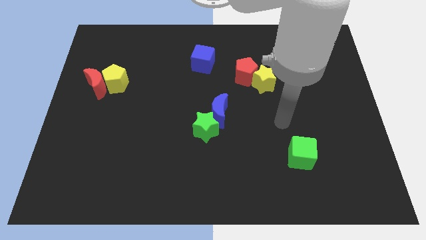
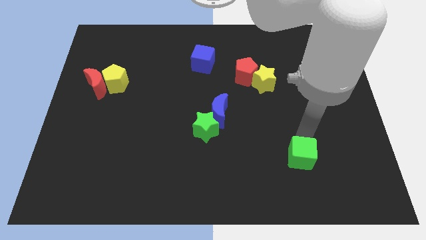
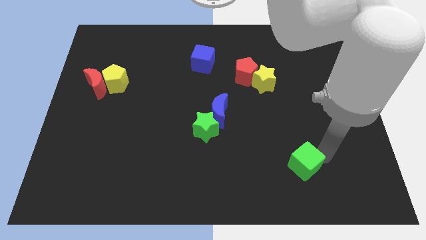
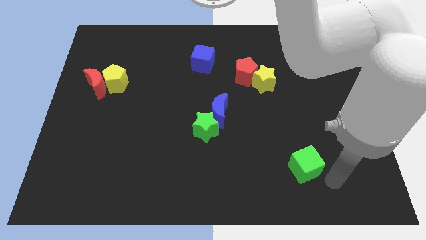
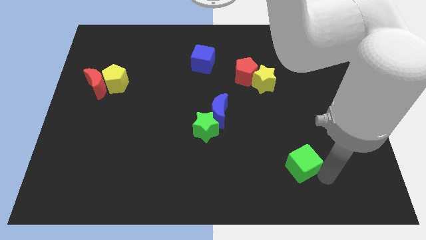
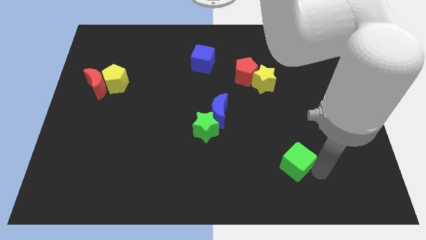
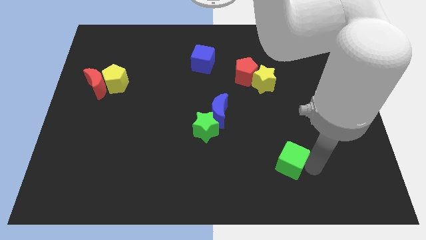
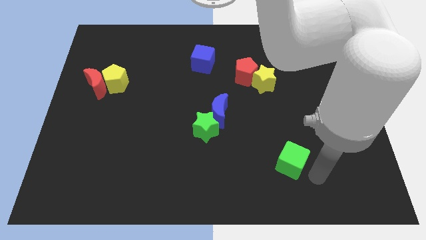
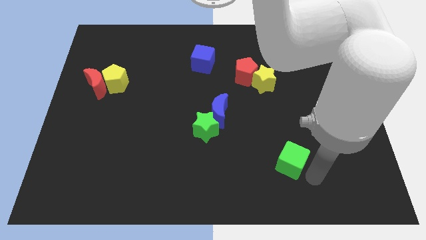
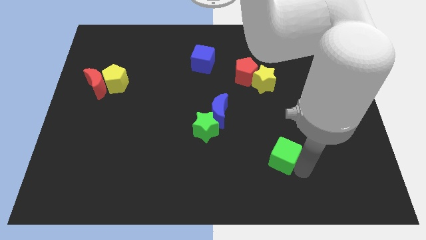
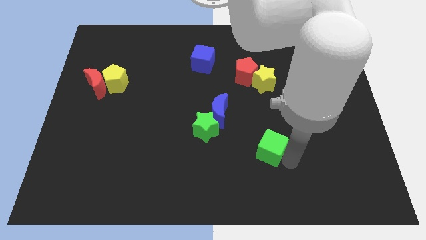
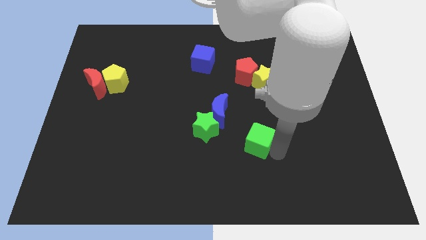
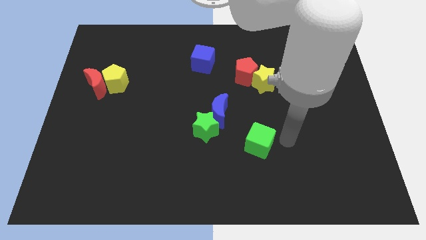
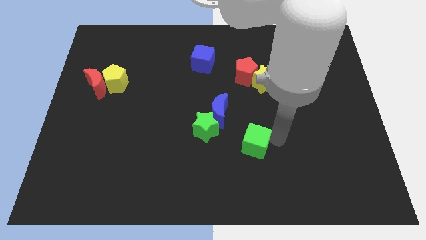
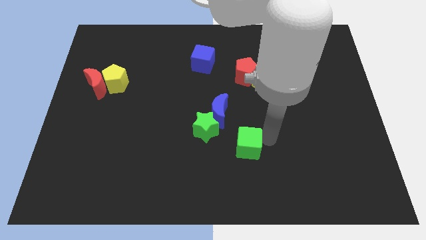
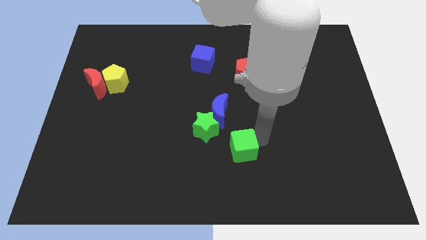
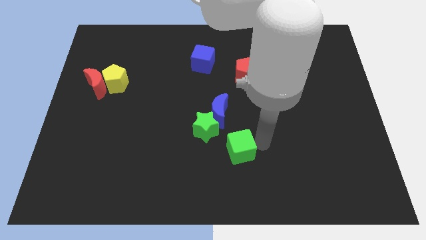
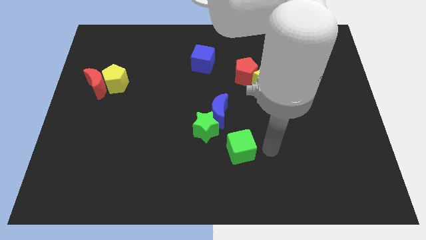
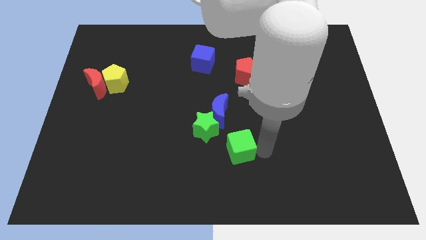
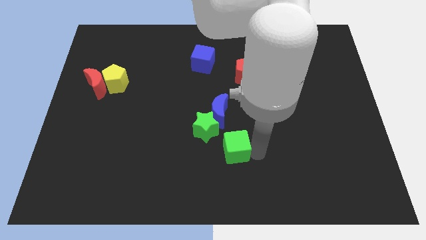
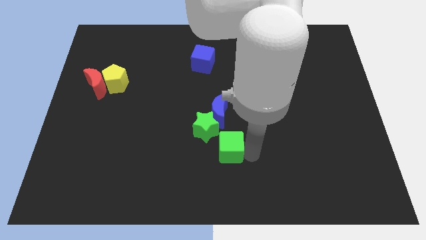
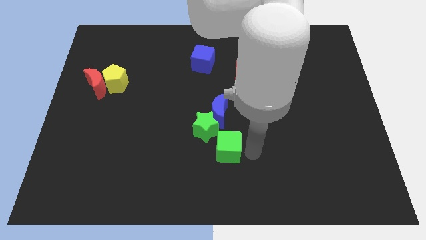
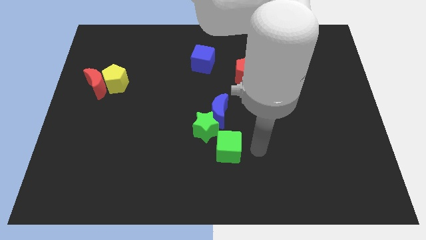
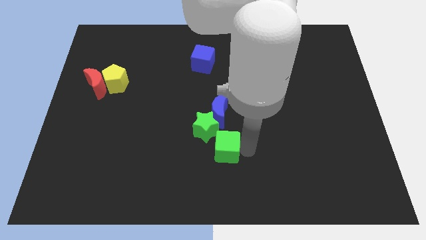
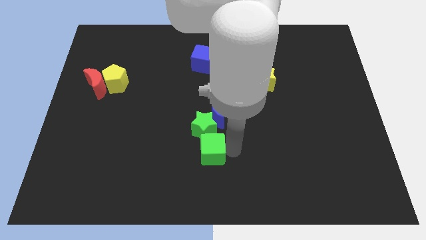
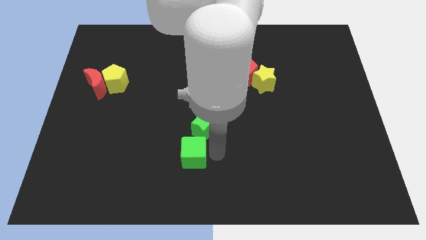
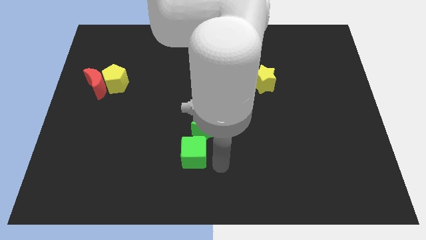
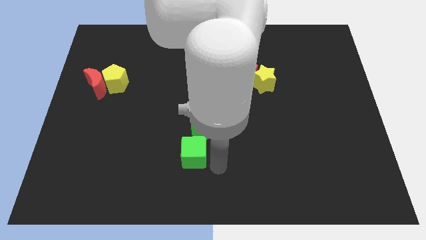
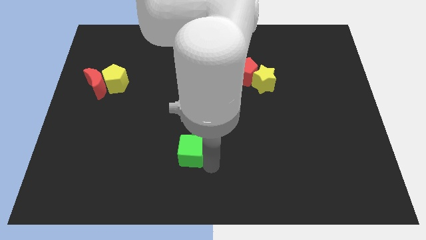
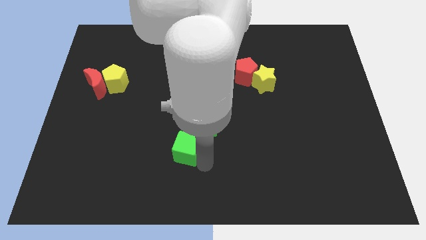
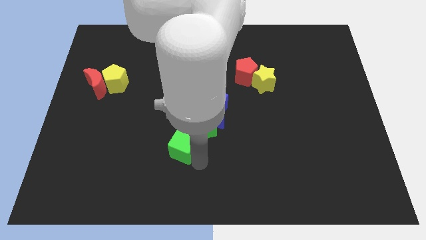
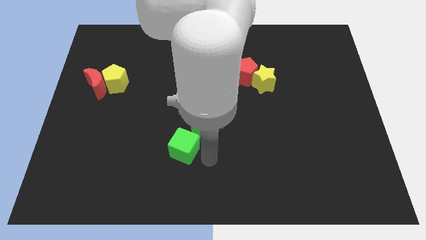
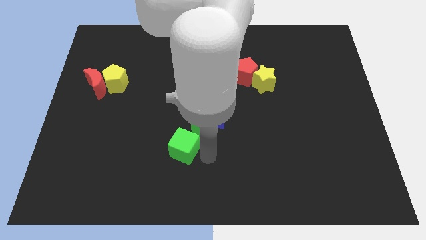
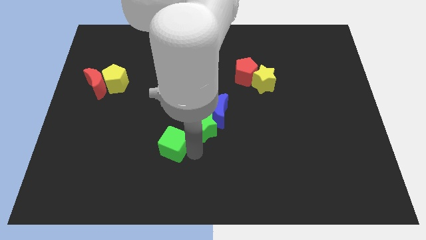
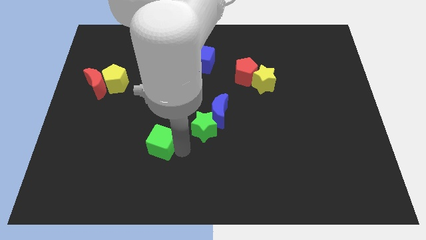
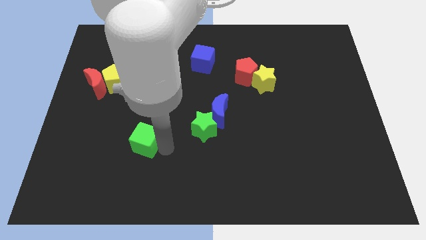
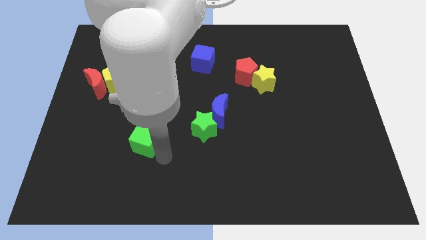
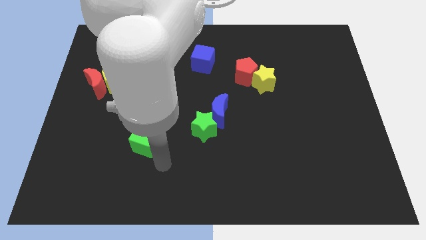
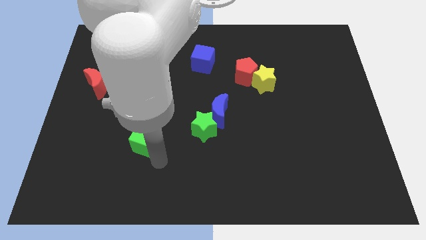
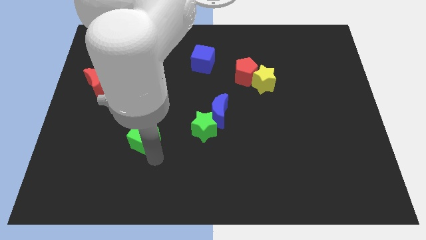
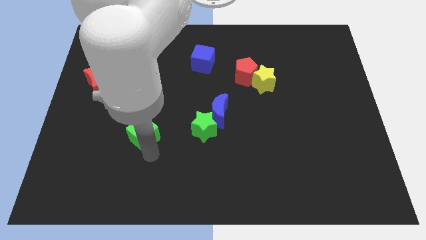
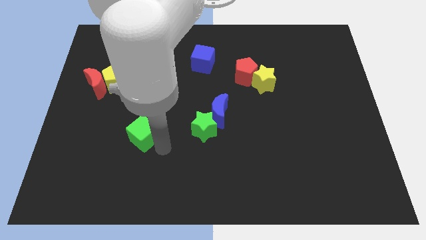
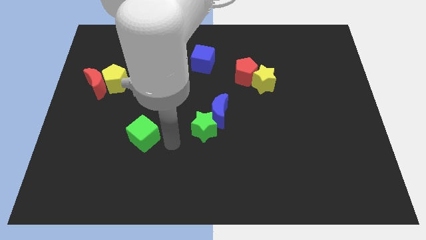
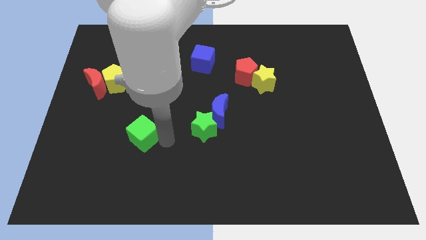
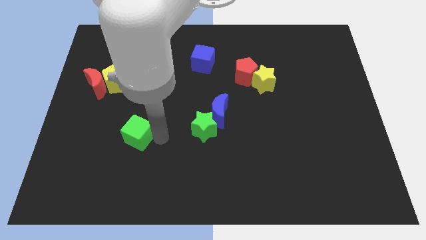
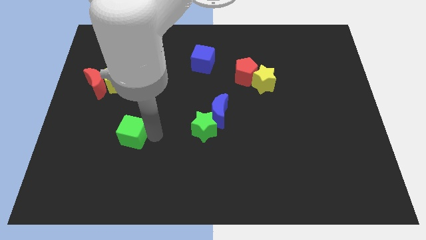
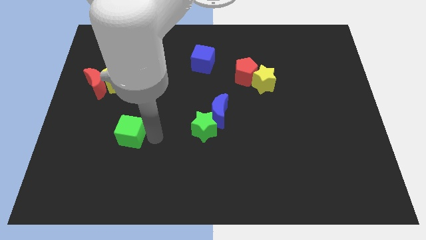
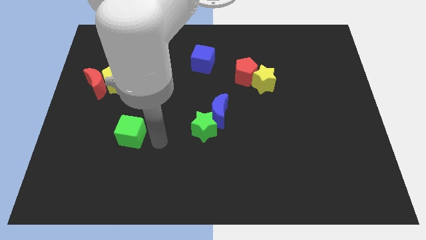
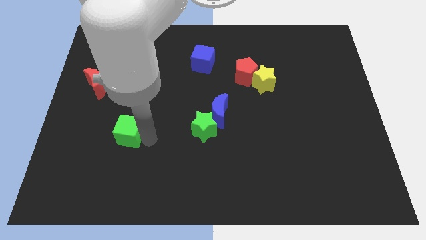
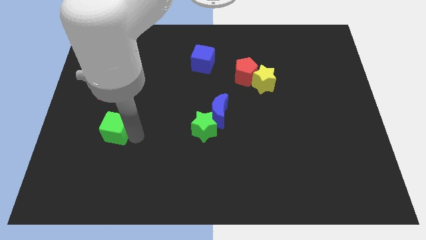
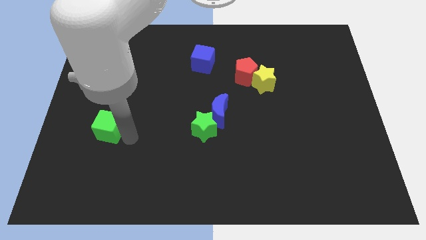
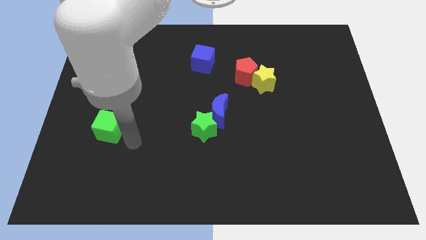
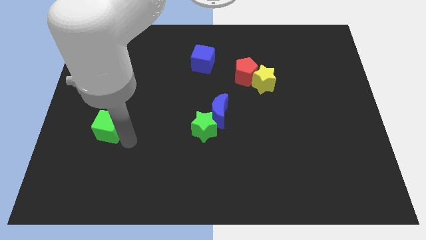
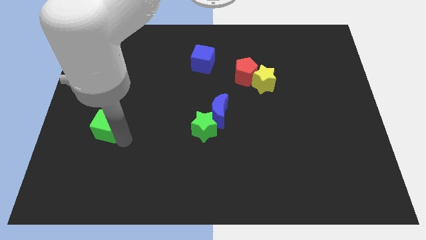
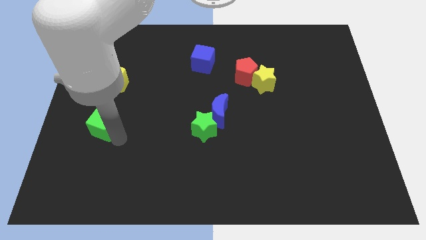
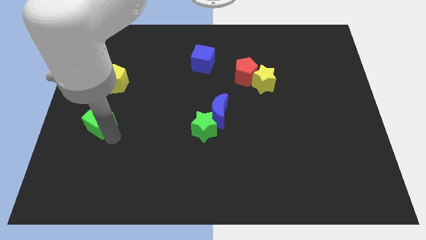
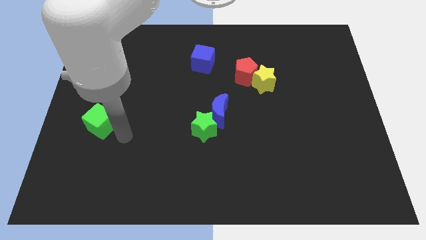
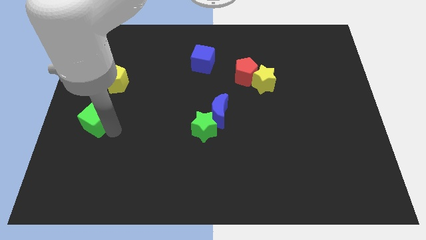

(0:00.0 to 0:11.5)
move the green cube to the center left
